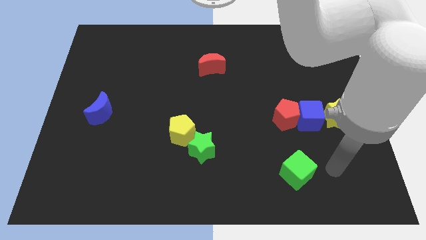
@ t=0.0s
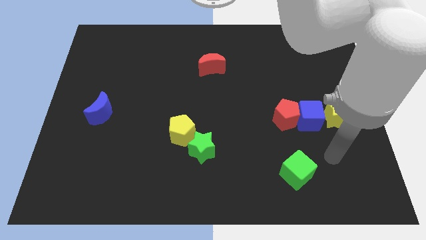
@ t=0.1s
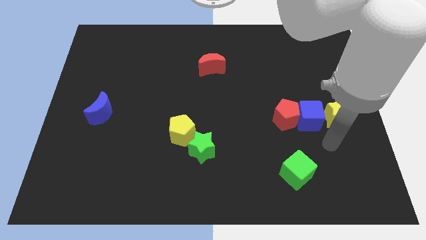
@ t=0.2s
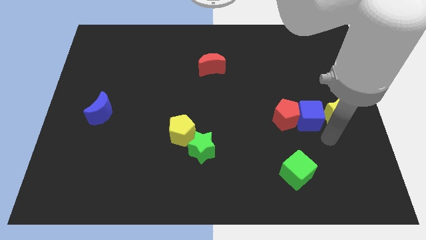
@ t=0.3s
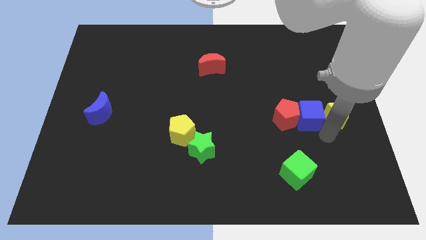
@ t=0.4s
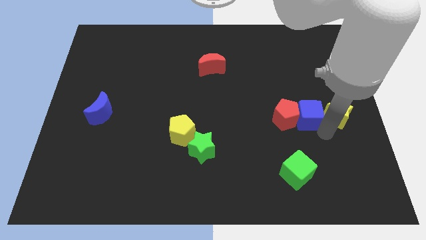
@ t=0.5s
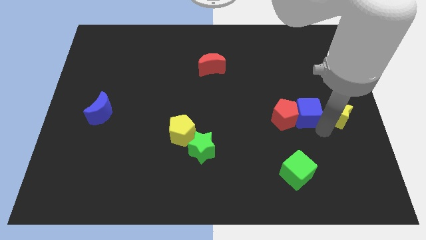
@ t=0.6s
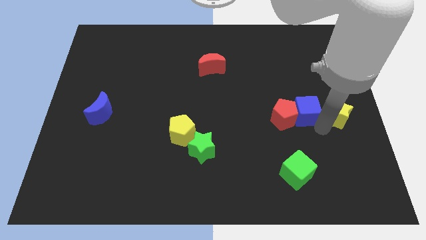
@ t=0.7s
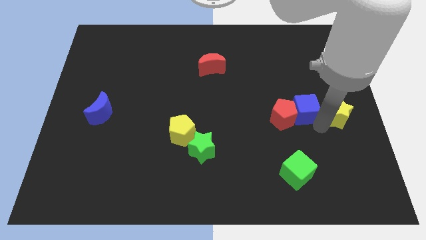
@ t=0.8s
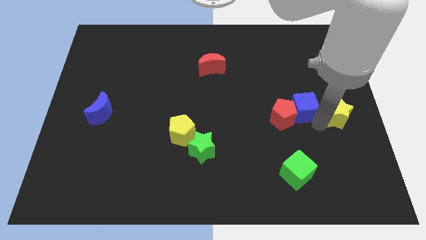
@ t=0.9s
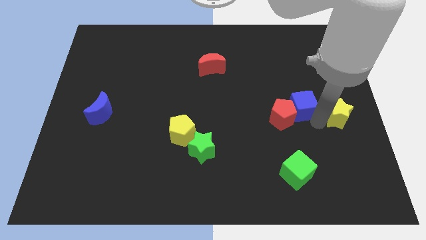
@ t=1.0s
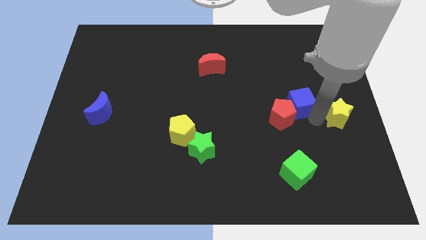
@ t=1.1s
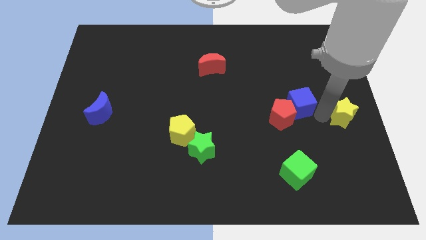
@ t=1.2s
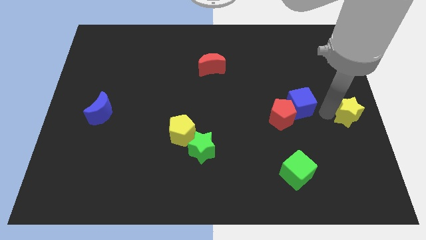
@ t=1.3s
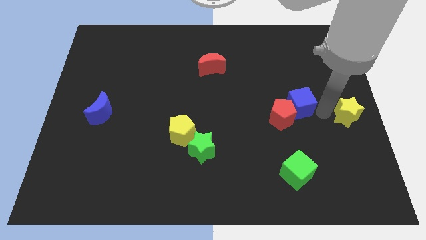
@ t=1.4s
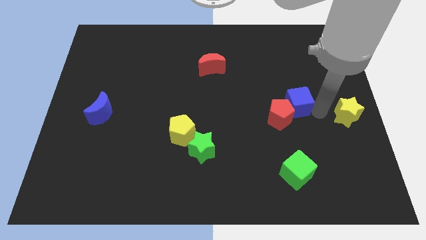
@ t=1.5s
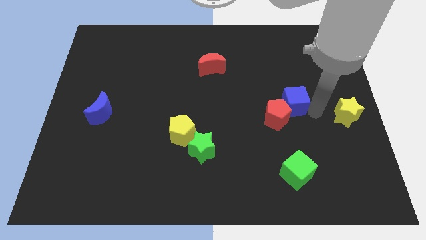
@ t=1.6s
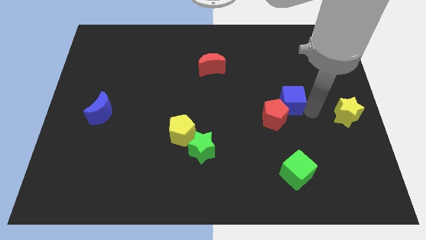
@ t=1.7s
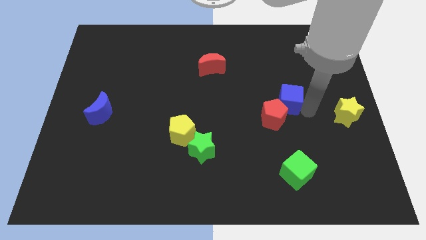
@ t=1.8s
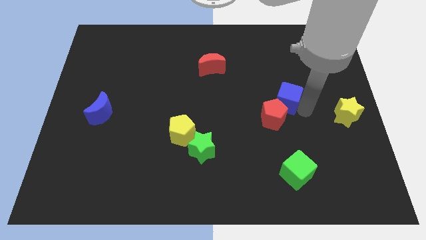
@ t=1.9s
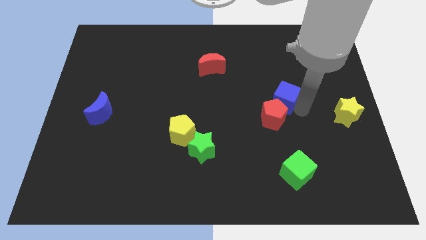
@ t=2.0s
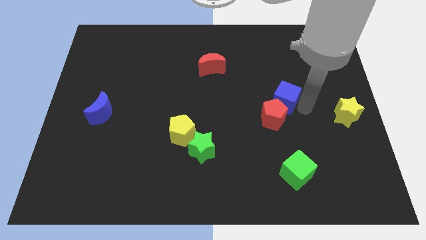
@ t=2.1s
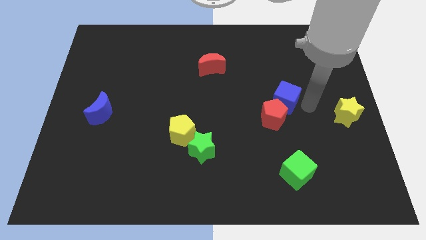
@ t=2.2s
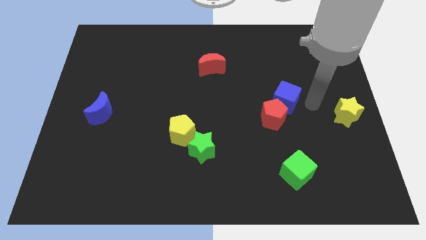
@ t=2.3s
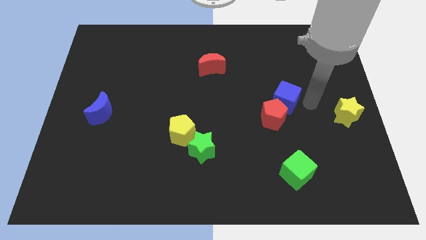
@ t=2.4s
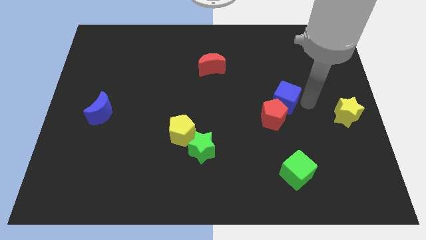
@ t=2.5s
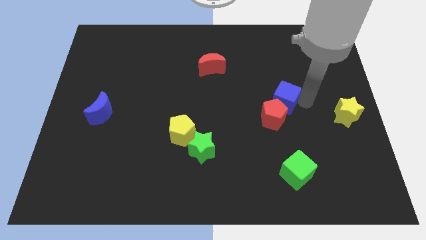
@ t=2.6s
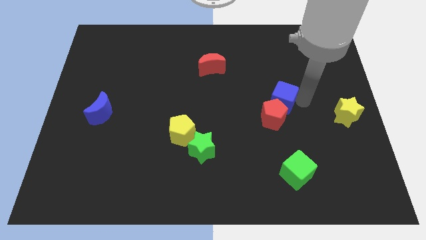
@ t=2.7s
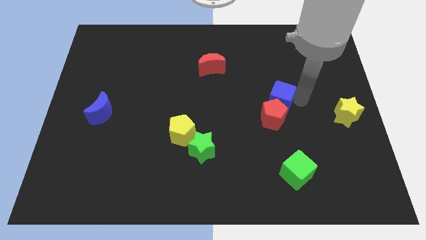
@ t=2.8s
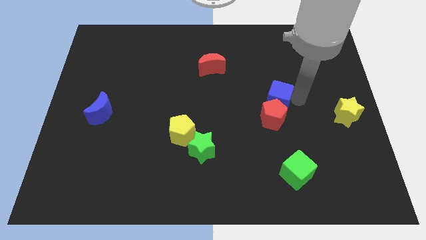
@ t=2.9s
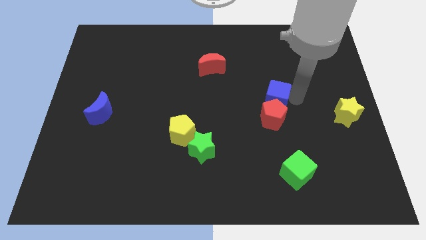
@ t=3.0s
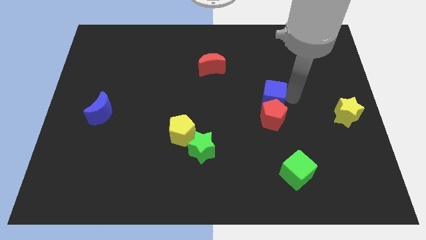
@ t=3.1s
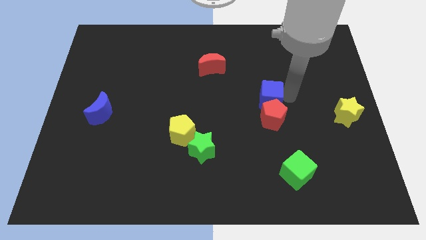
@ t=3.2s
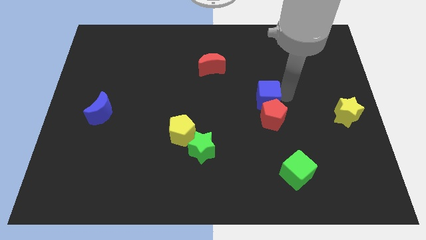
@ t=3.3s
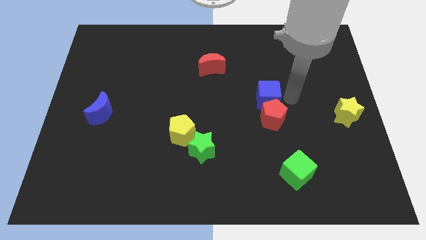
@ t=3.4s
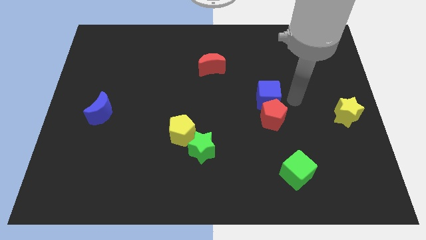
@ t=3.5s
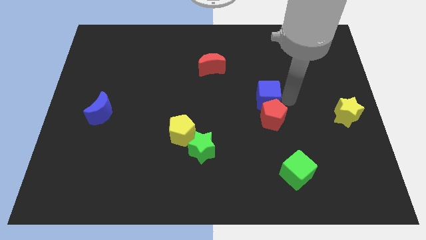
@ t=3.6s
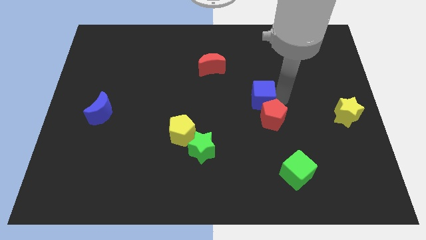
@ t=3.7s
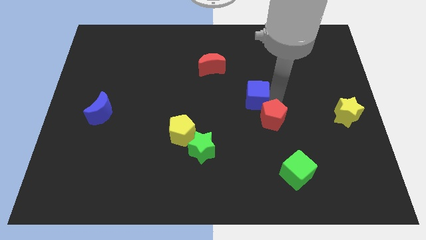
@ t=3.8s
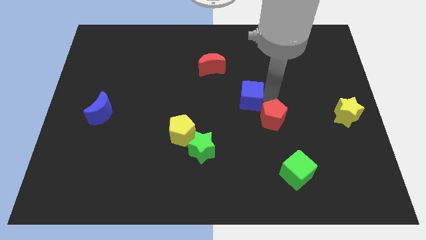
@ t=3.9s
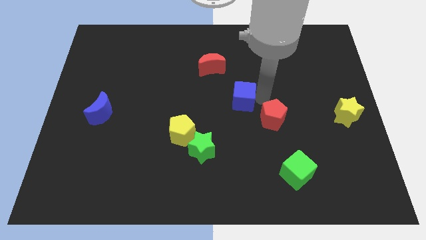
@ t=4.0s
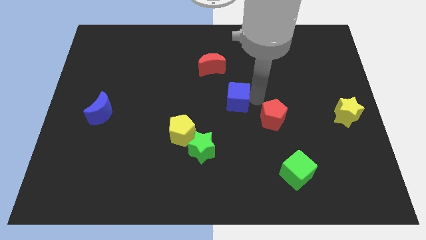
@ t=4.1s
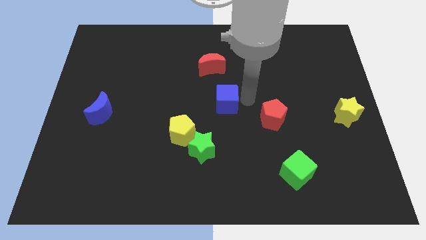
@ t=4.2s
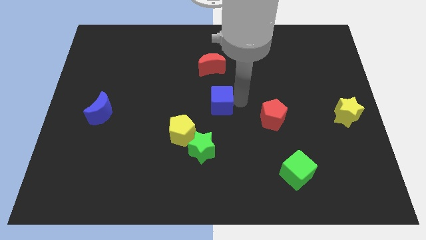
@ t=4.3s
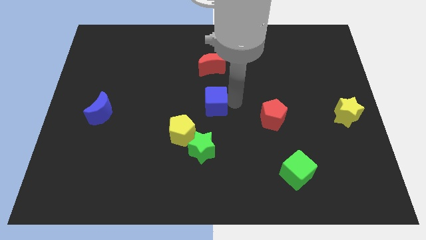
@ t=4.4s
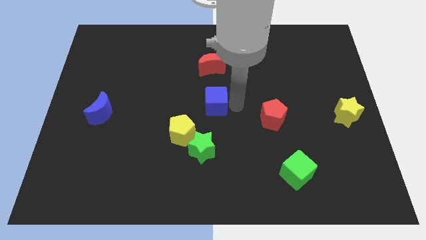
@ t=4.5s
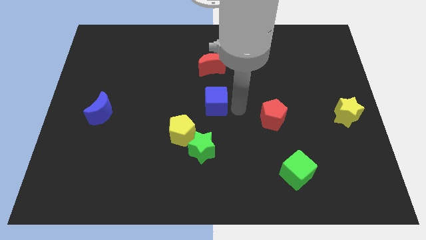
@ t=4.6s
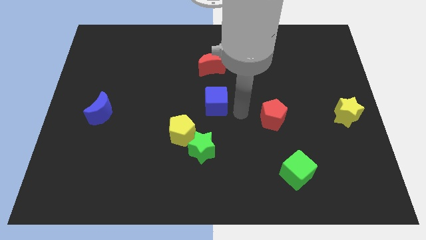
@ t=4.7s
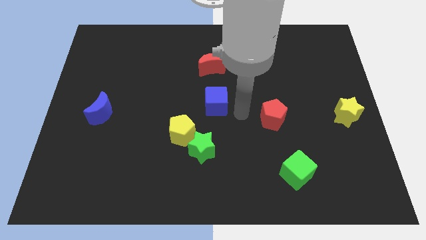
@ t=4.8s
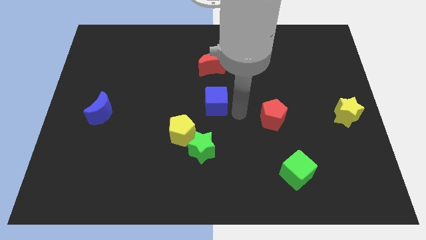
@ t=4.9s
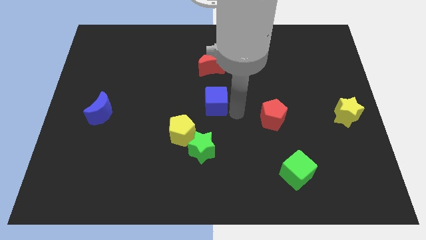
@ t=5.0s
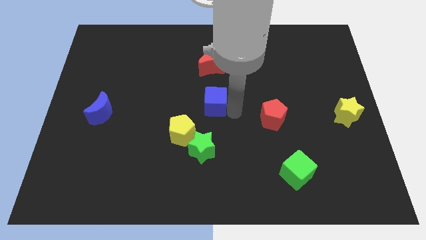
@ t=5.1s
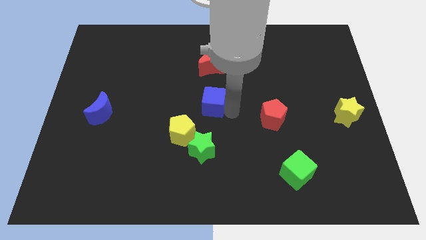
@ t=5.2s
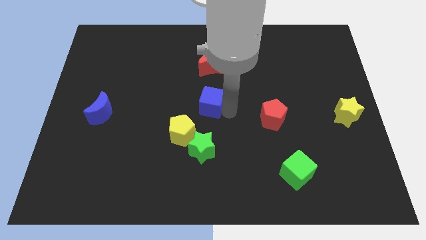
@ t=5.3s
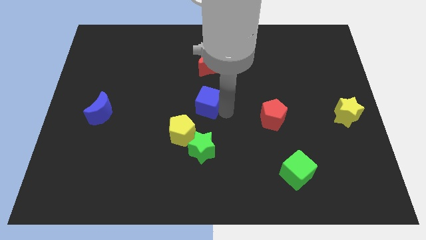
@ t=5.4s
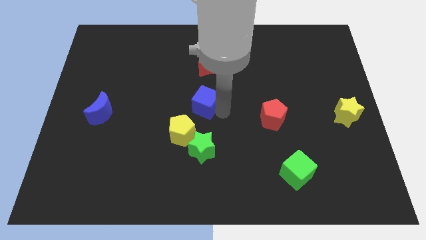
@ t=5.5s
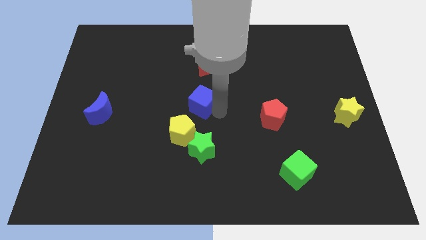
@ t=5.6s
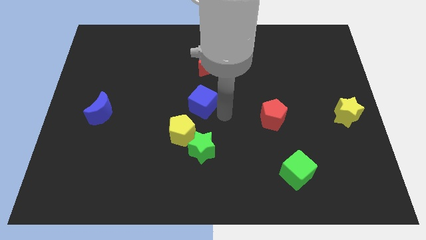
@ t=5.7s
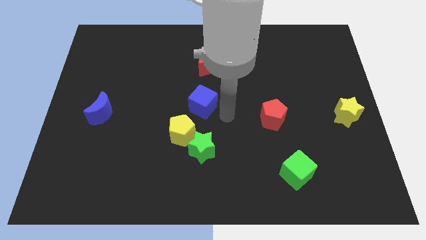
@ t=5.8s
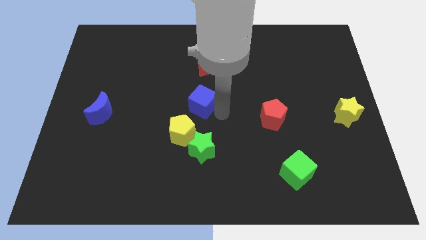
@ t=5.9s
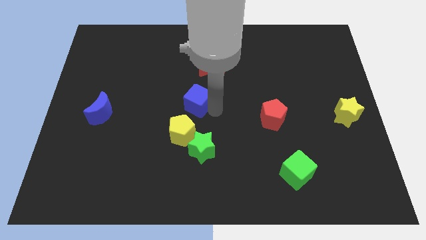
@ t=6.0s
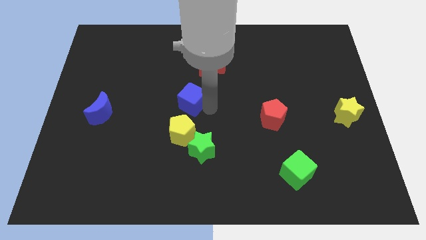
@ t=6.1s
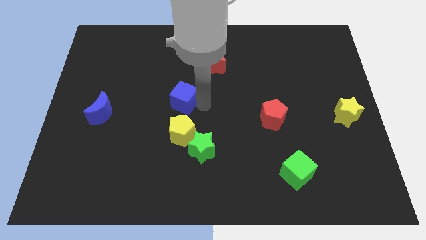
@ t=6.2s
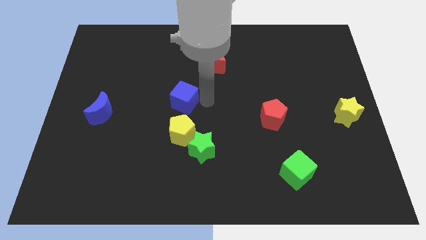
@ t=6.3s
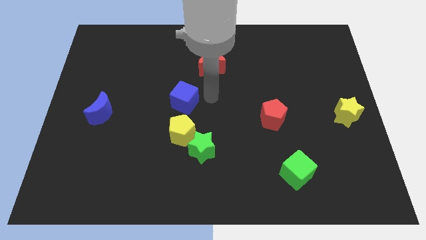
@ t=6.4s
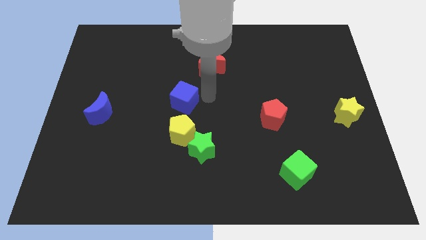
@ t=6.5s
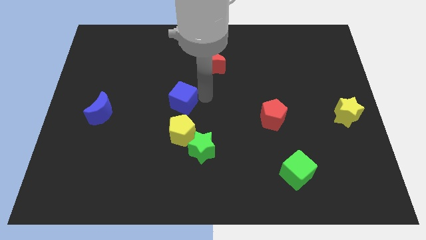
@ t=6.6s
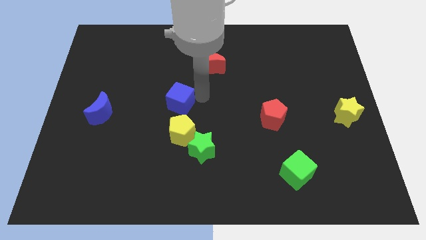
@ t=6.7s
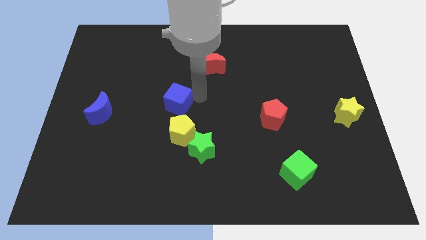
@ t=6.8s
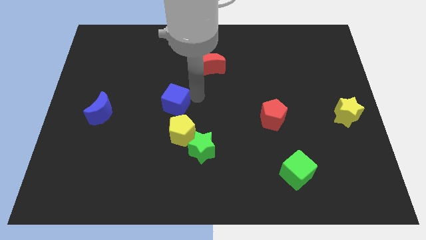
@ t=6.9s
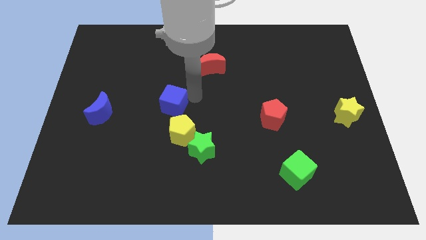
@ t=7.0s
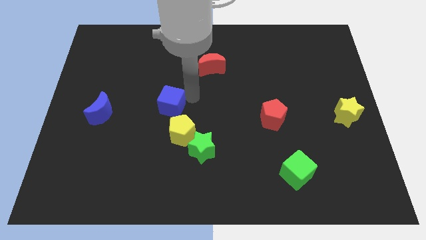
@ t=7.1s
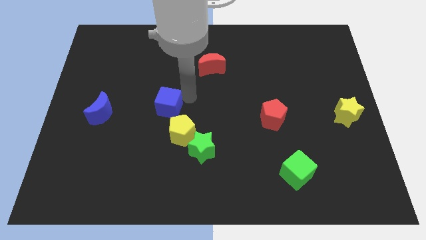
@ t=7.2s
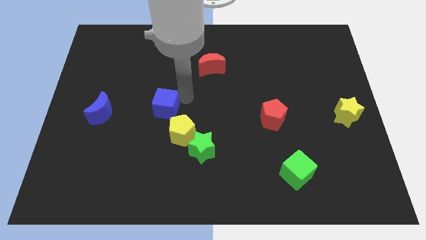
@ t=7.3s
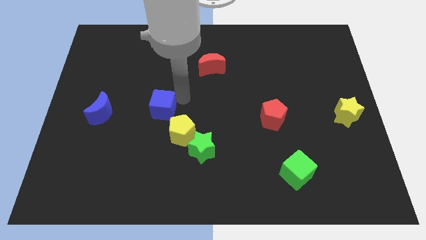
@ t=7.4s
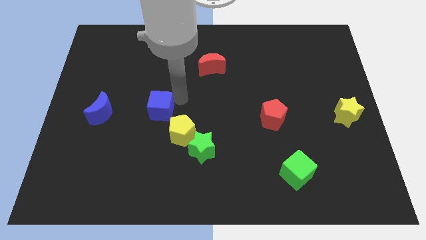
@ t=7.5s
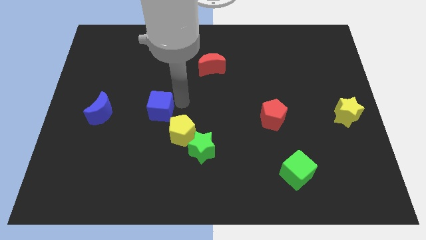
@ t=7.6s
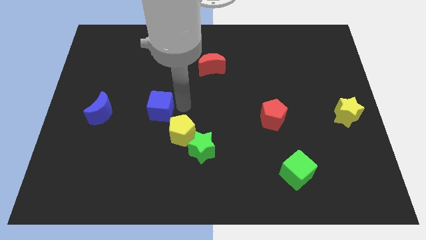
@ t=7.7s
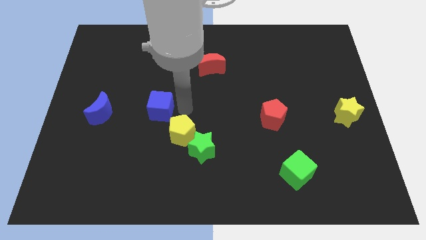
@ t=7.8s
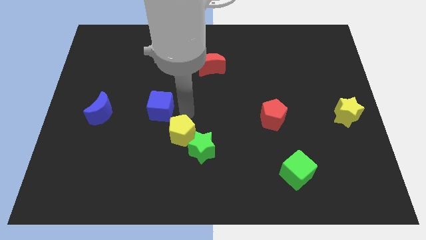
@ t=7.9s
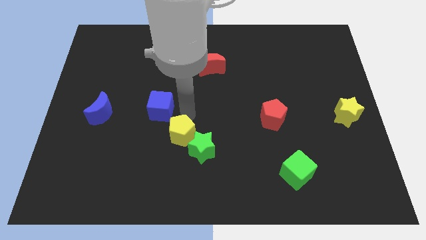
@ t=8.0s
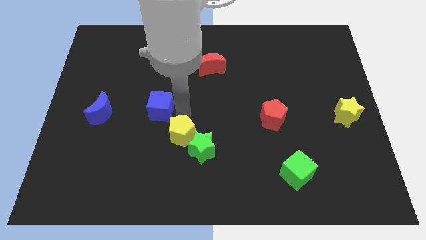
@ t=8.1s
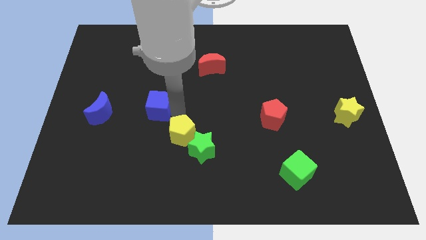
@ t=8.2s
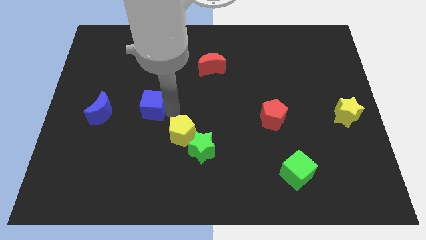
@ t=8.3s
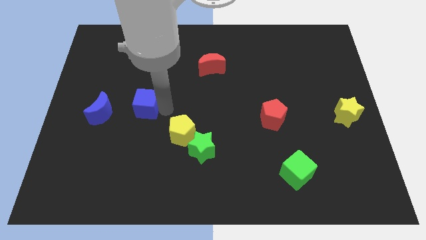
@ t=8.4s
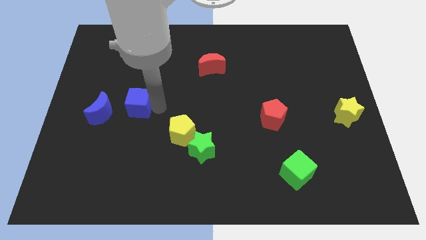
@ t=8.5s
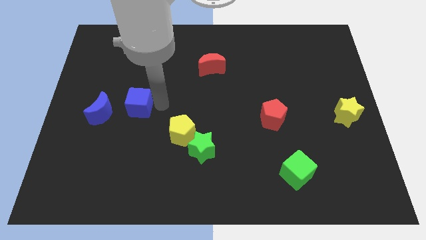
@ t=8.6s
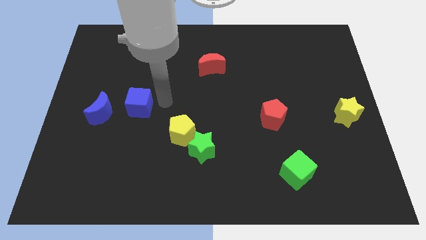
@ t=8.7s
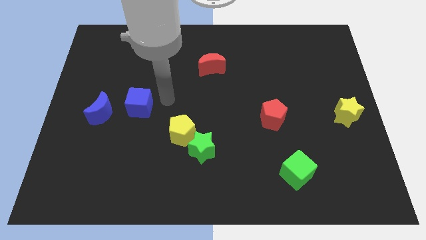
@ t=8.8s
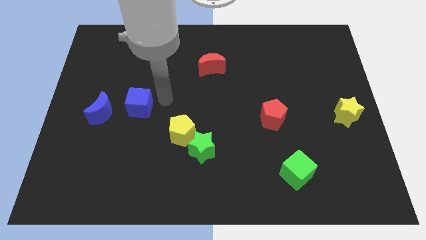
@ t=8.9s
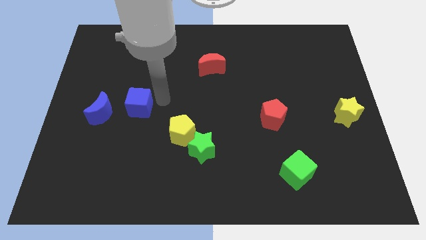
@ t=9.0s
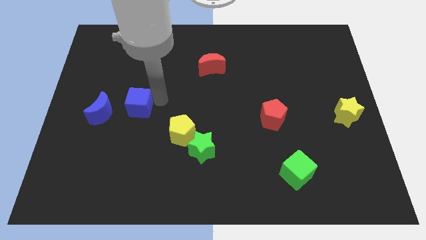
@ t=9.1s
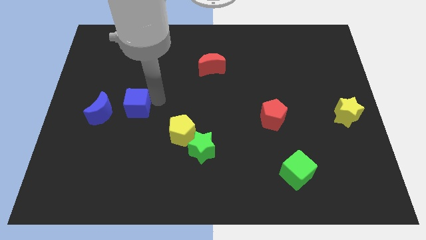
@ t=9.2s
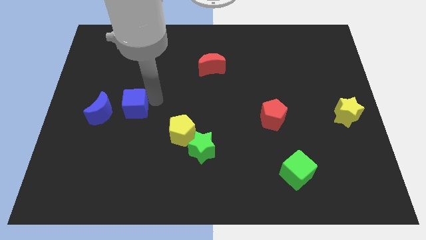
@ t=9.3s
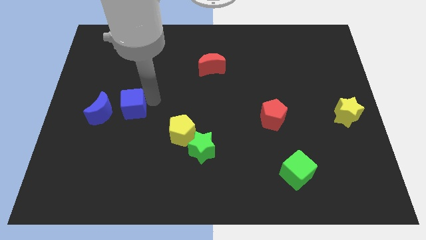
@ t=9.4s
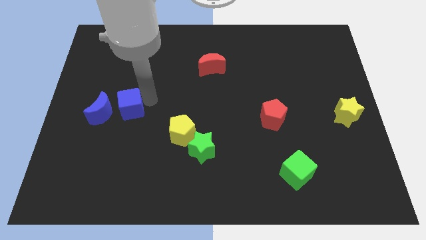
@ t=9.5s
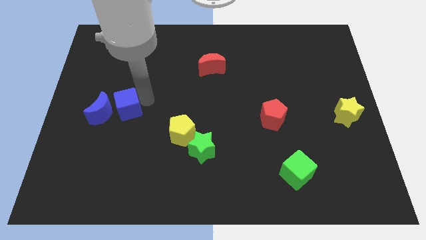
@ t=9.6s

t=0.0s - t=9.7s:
move the blue cube close to the blue moon
